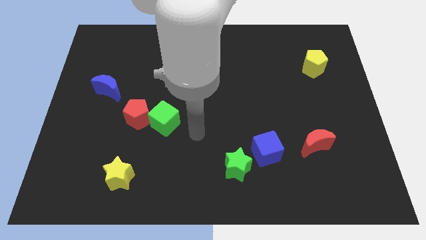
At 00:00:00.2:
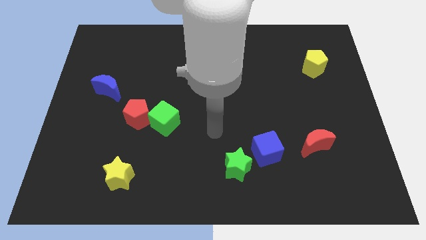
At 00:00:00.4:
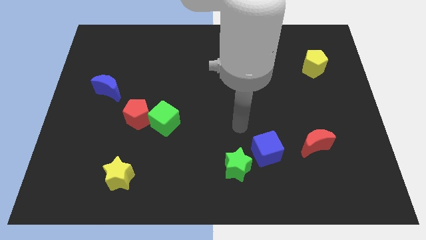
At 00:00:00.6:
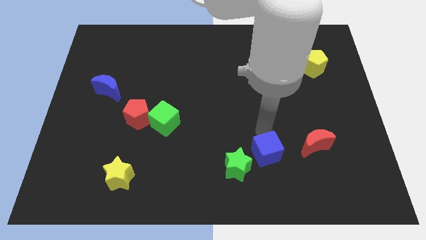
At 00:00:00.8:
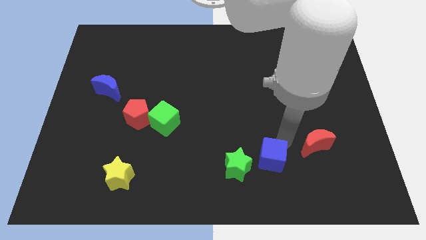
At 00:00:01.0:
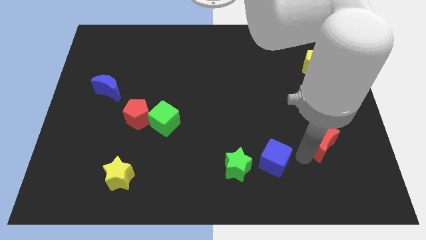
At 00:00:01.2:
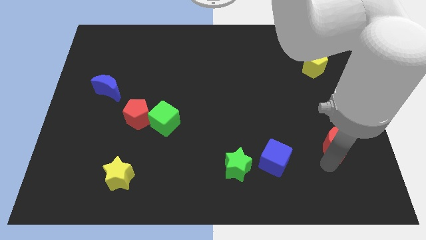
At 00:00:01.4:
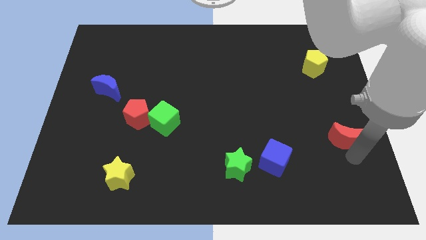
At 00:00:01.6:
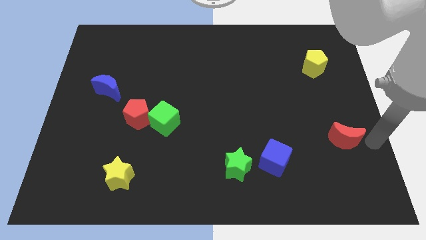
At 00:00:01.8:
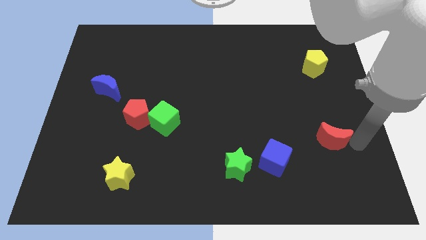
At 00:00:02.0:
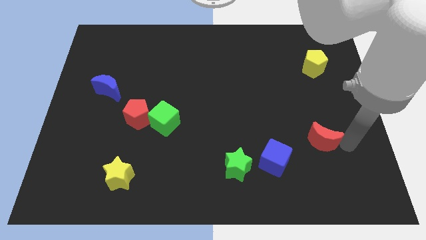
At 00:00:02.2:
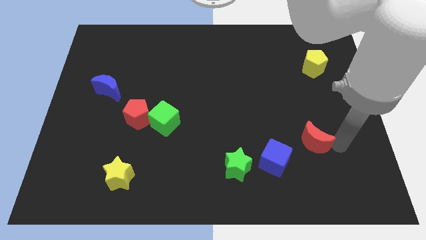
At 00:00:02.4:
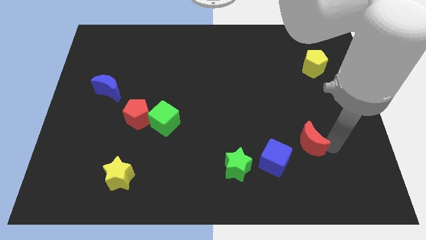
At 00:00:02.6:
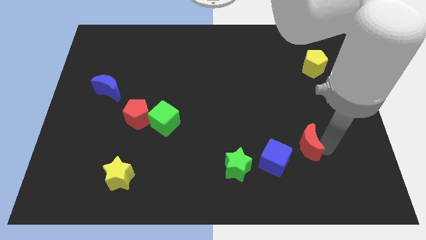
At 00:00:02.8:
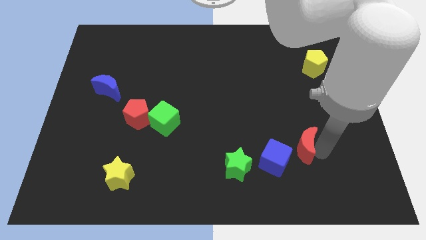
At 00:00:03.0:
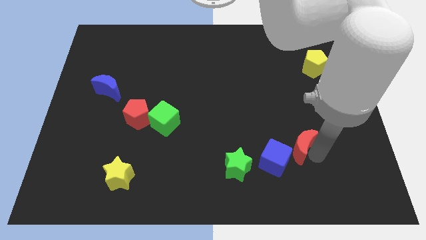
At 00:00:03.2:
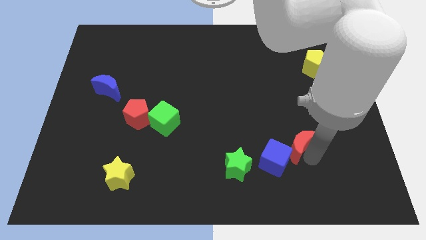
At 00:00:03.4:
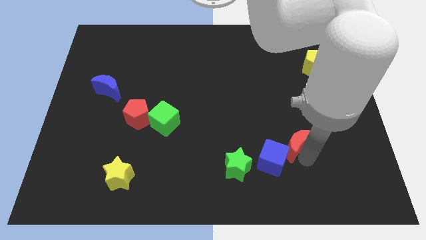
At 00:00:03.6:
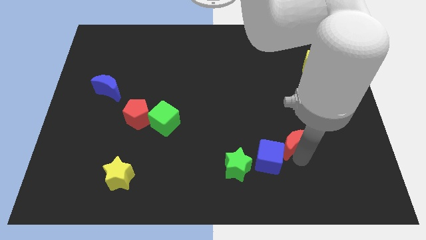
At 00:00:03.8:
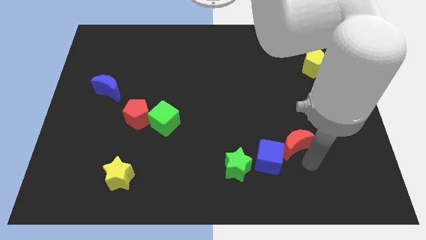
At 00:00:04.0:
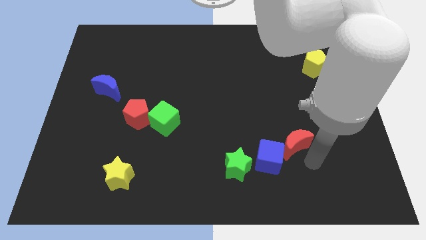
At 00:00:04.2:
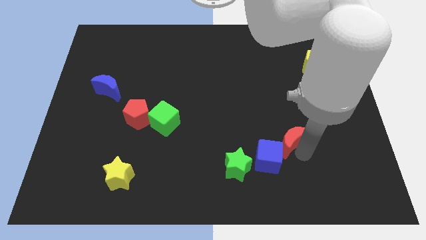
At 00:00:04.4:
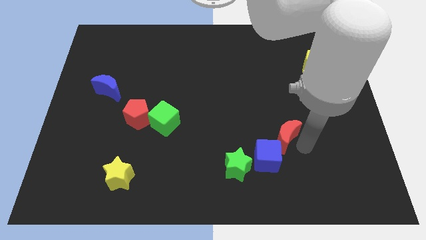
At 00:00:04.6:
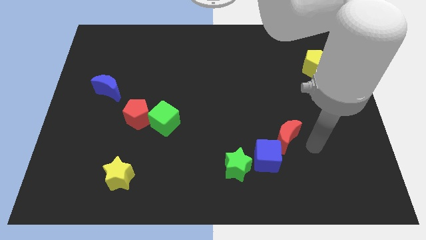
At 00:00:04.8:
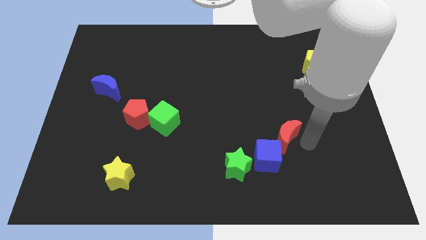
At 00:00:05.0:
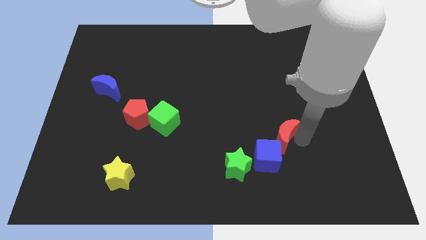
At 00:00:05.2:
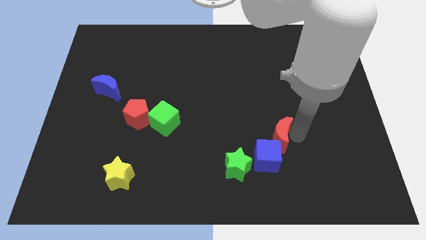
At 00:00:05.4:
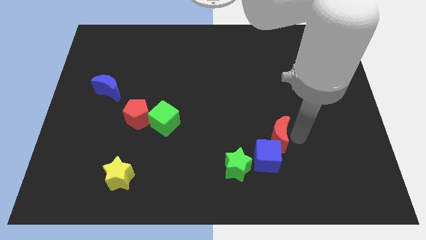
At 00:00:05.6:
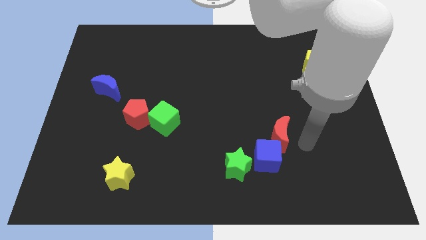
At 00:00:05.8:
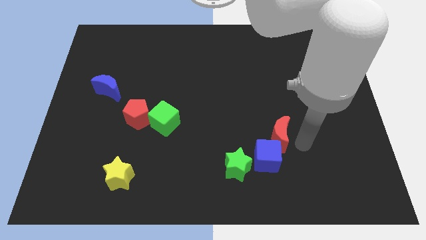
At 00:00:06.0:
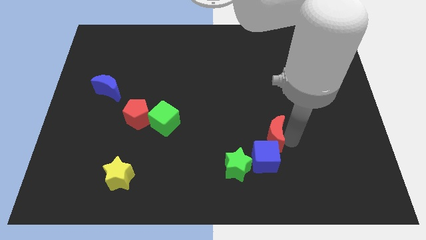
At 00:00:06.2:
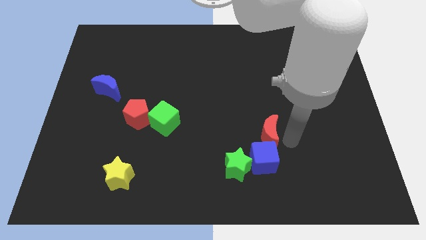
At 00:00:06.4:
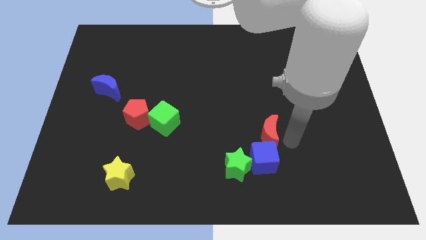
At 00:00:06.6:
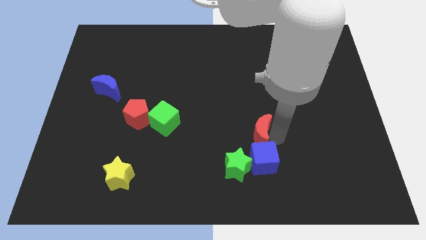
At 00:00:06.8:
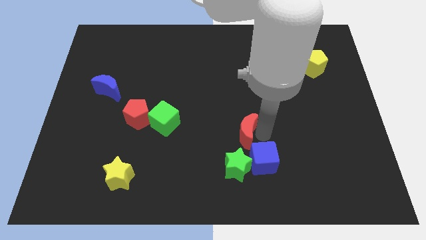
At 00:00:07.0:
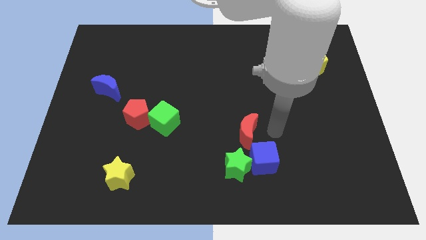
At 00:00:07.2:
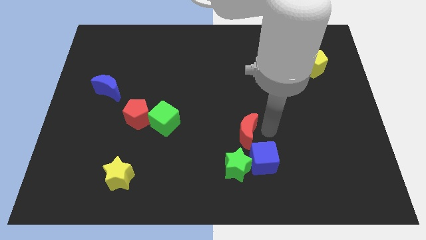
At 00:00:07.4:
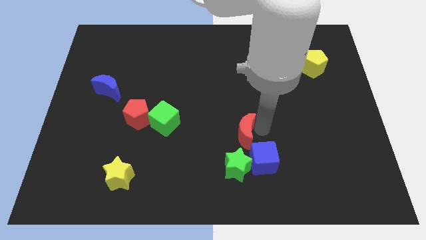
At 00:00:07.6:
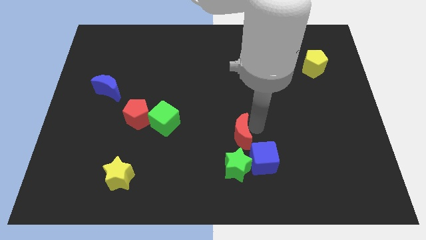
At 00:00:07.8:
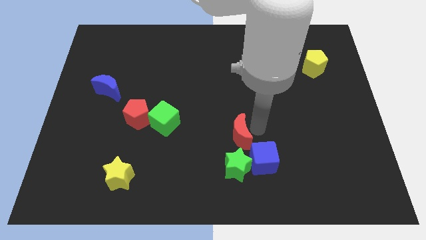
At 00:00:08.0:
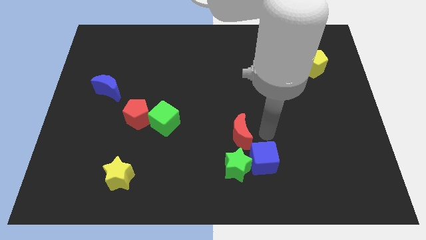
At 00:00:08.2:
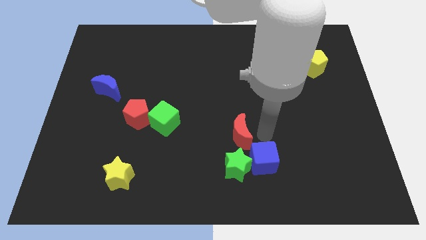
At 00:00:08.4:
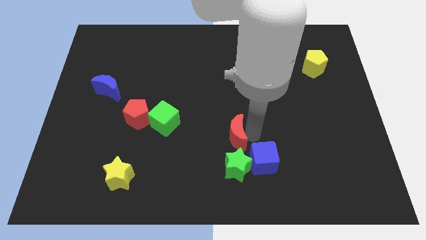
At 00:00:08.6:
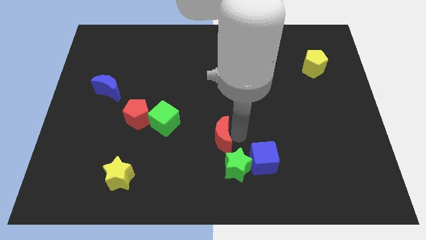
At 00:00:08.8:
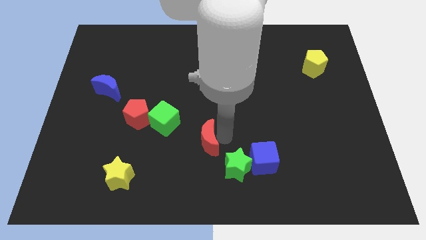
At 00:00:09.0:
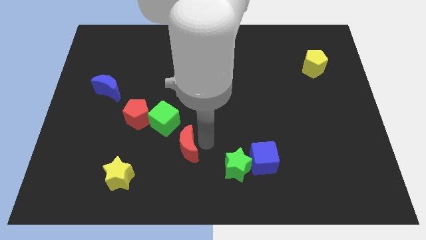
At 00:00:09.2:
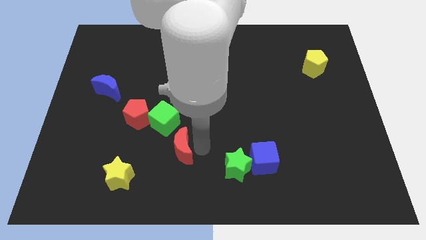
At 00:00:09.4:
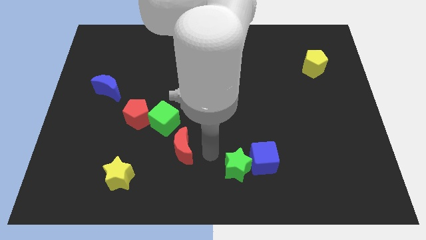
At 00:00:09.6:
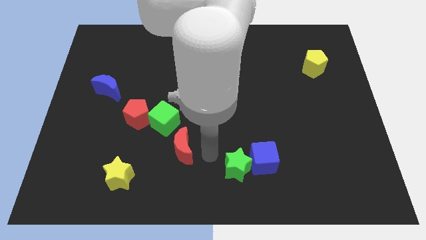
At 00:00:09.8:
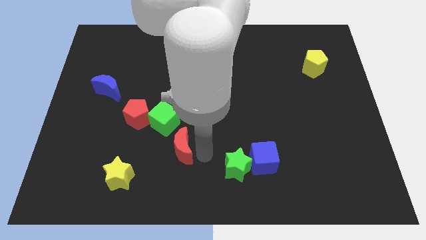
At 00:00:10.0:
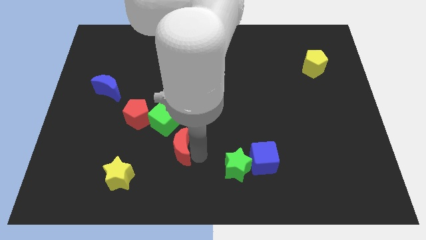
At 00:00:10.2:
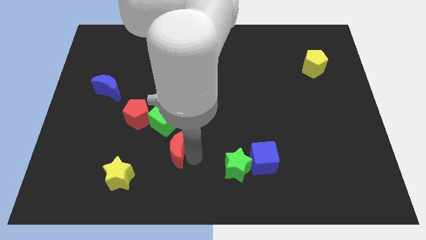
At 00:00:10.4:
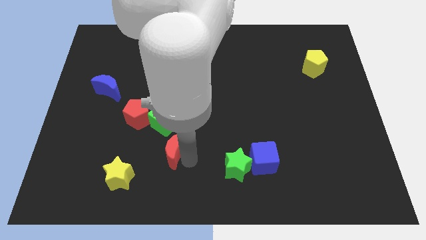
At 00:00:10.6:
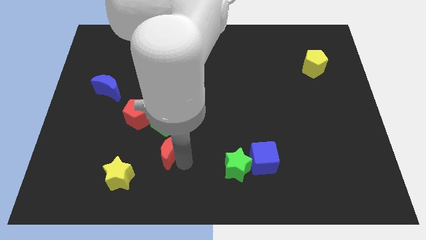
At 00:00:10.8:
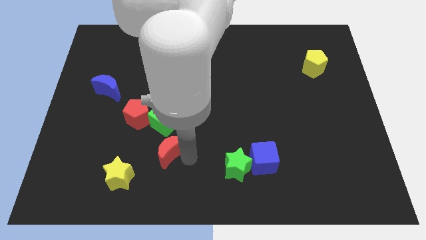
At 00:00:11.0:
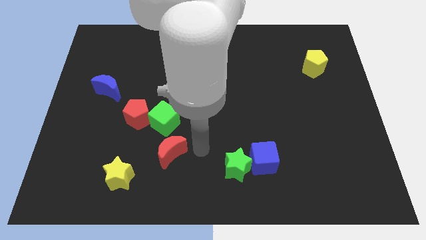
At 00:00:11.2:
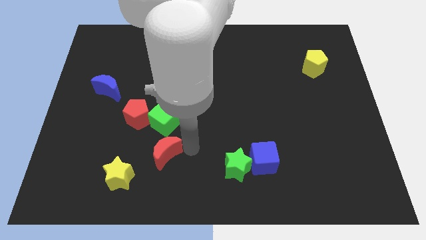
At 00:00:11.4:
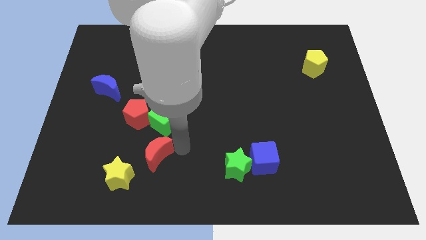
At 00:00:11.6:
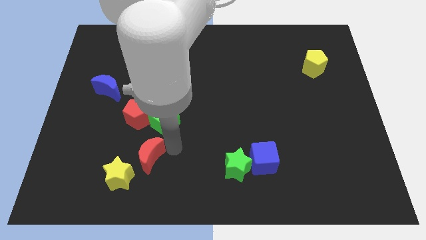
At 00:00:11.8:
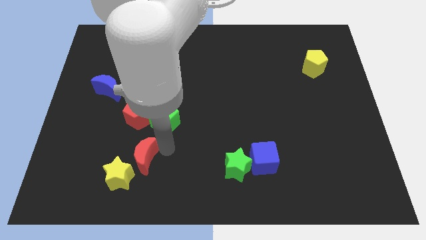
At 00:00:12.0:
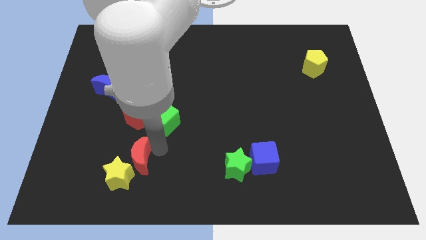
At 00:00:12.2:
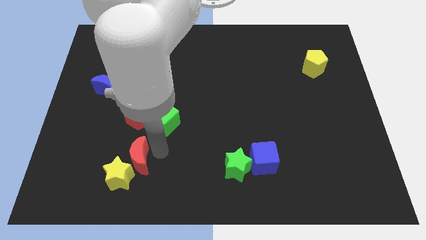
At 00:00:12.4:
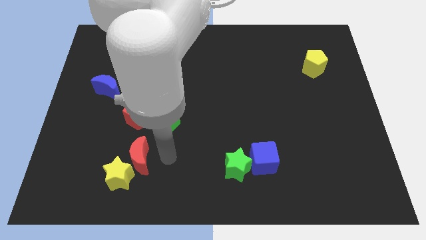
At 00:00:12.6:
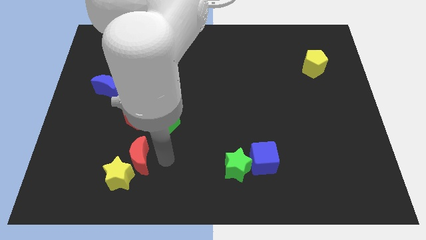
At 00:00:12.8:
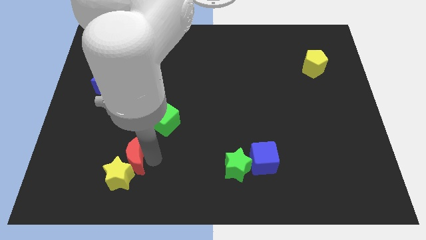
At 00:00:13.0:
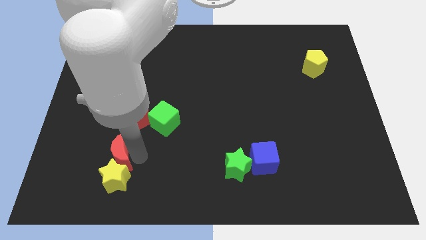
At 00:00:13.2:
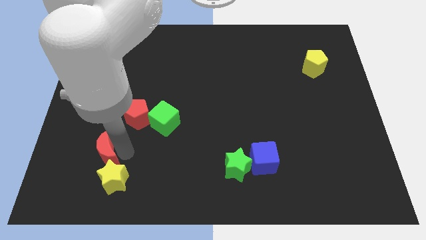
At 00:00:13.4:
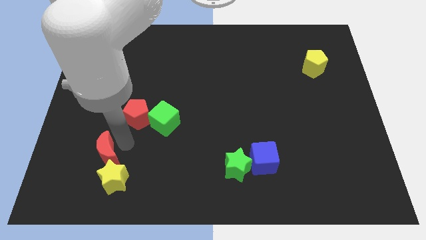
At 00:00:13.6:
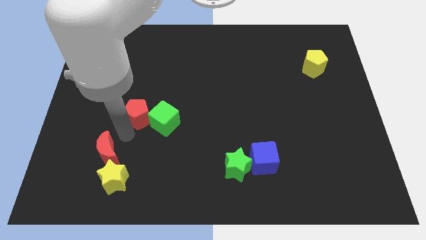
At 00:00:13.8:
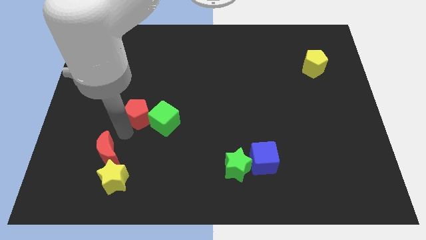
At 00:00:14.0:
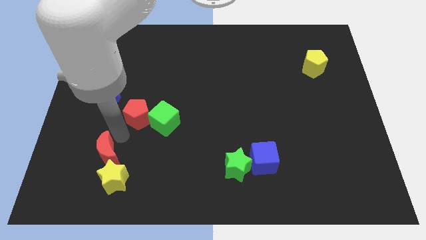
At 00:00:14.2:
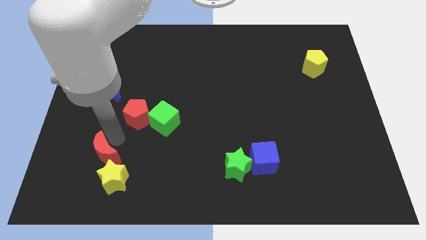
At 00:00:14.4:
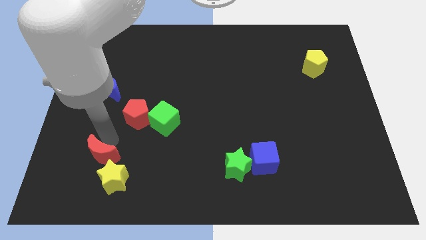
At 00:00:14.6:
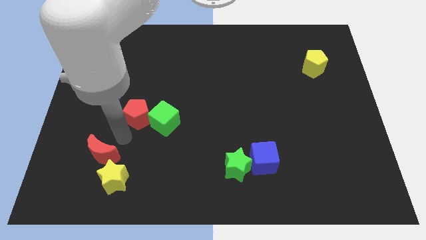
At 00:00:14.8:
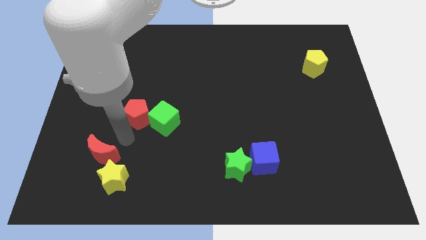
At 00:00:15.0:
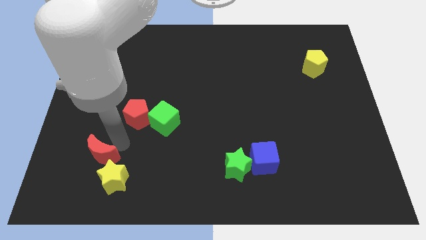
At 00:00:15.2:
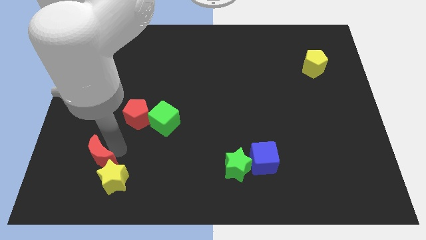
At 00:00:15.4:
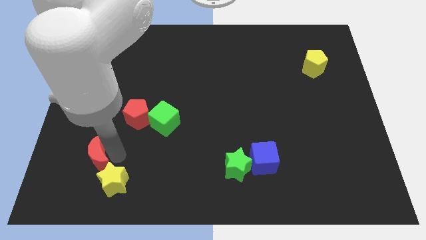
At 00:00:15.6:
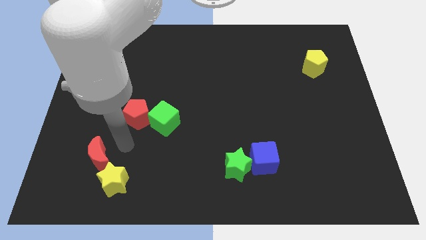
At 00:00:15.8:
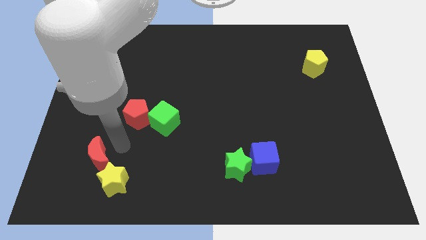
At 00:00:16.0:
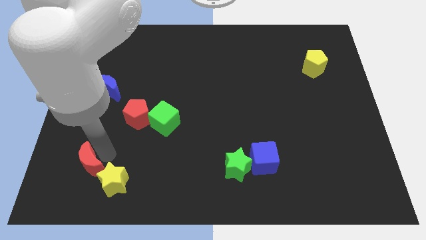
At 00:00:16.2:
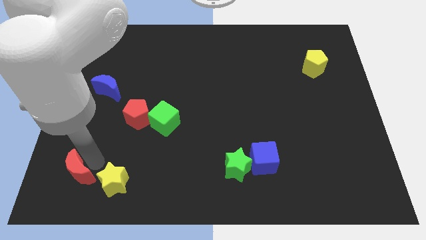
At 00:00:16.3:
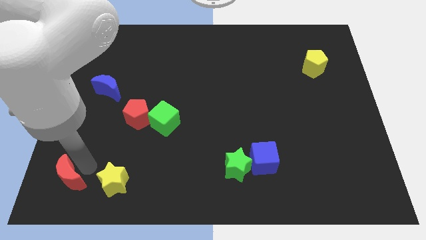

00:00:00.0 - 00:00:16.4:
push the red moon to the lower left corner
